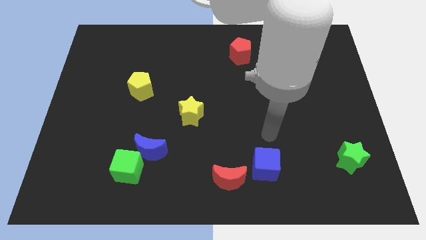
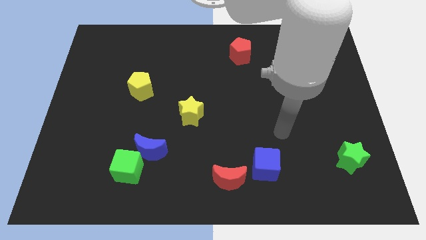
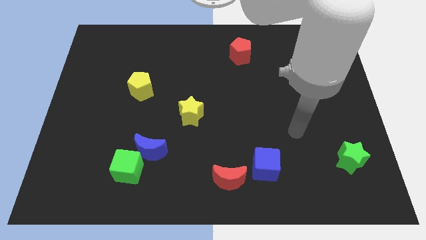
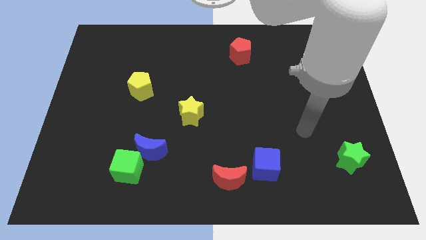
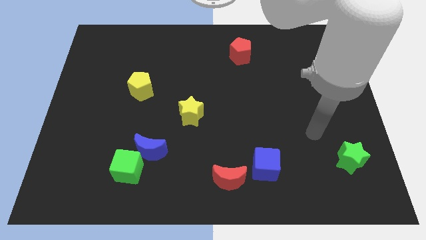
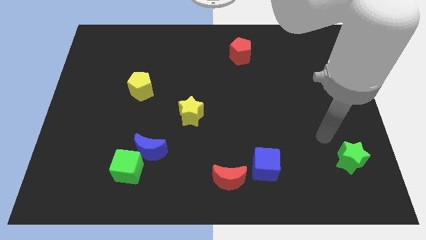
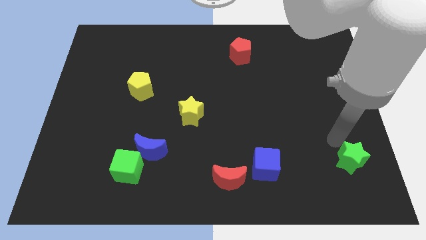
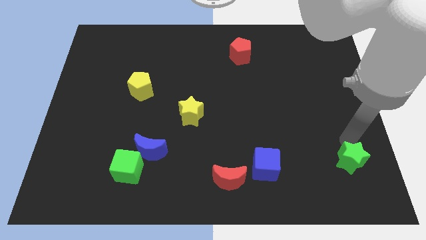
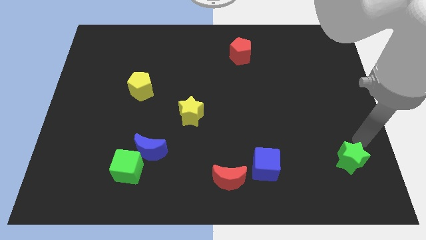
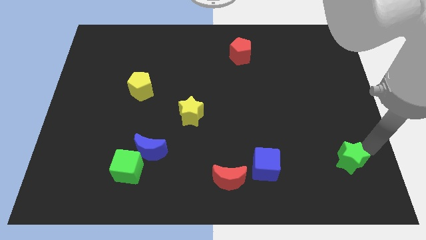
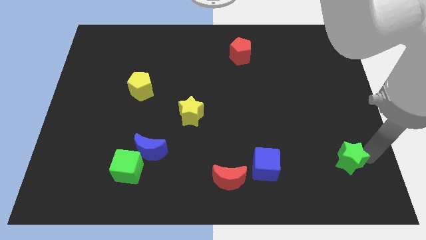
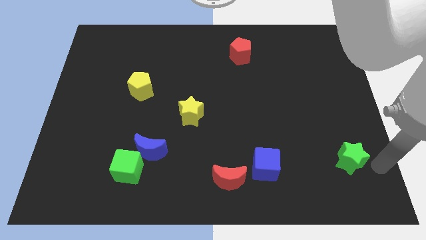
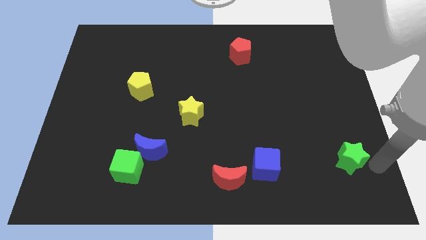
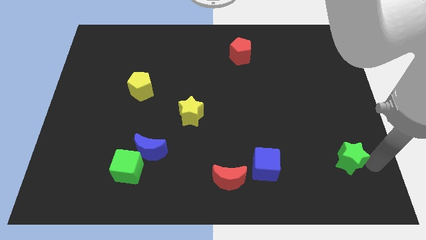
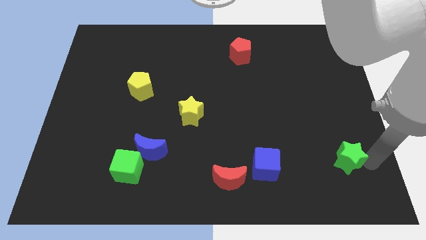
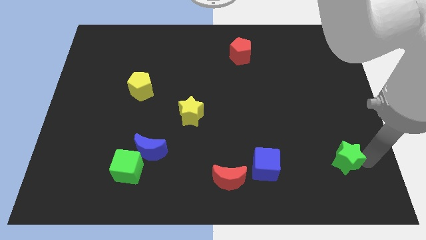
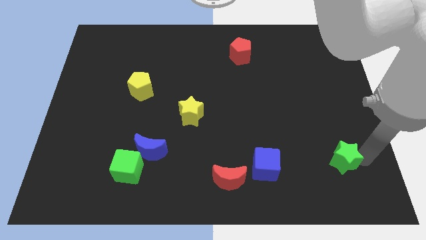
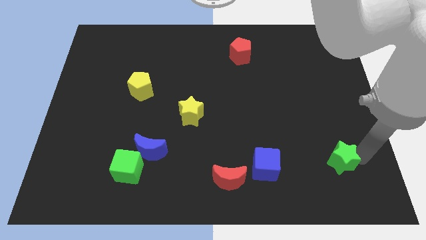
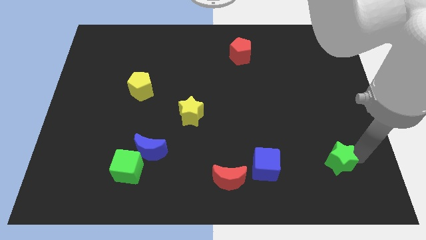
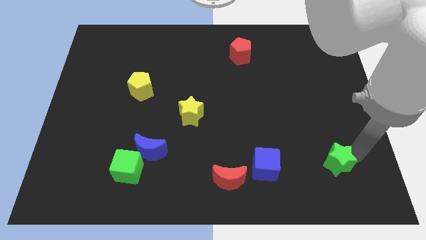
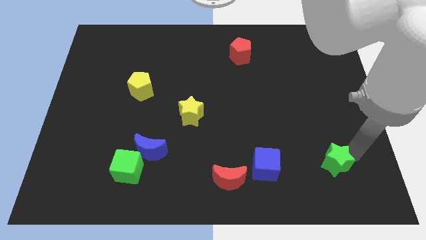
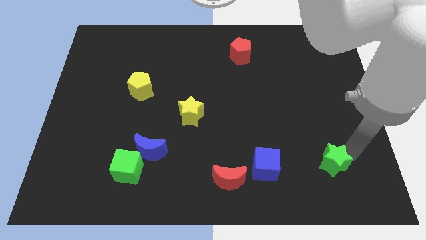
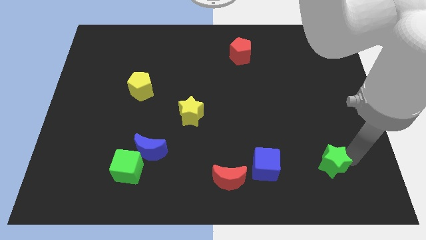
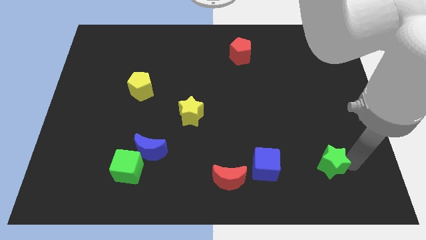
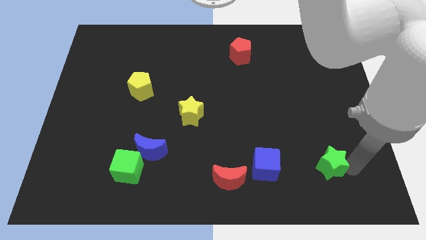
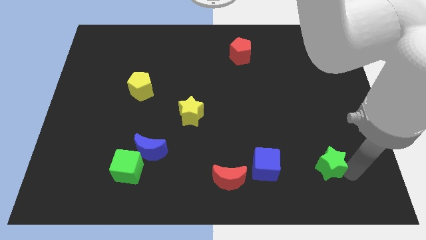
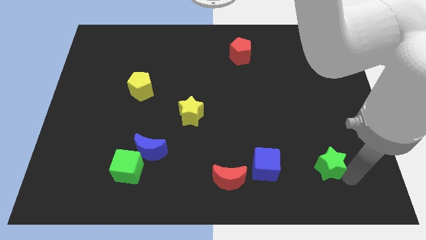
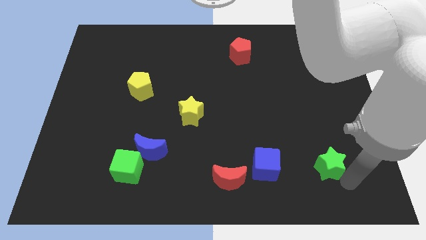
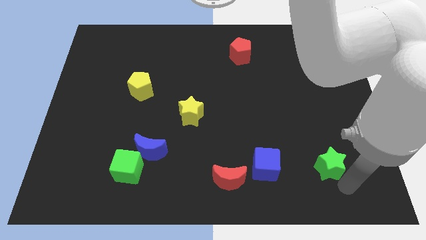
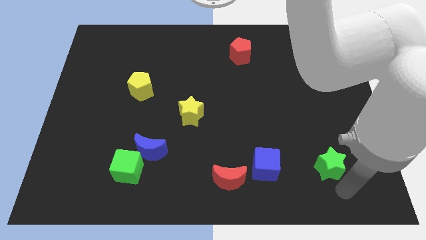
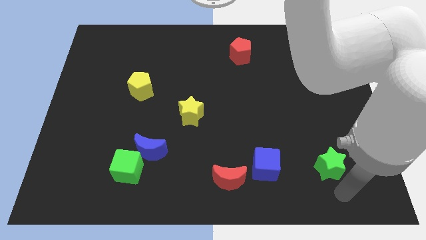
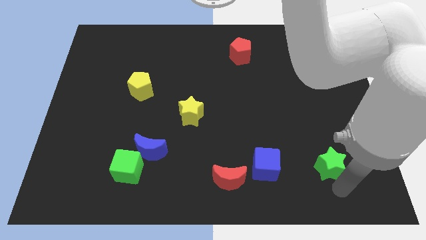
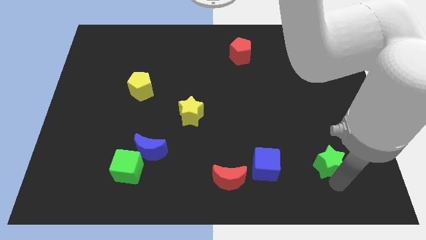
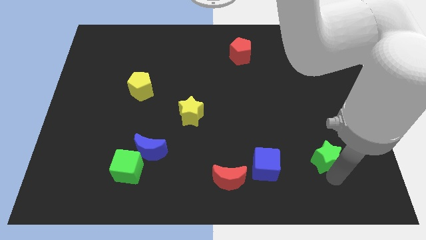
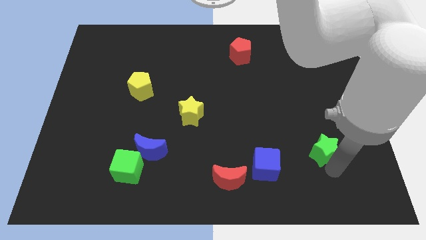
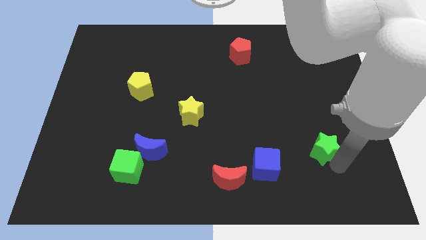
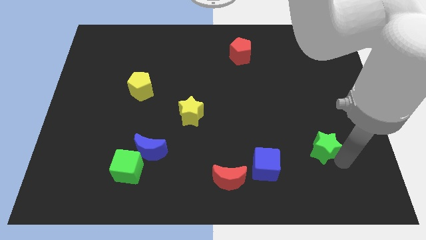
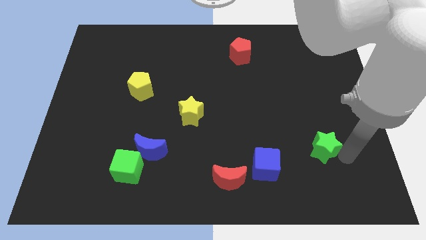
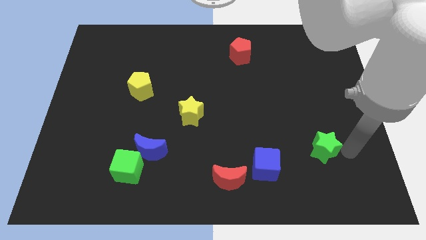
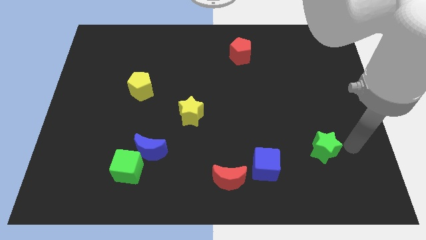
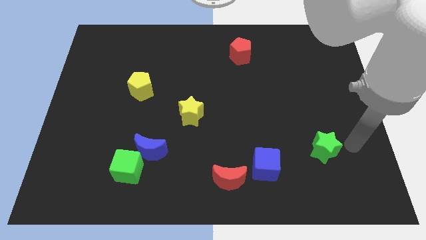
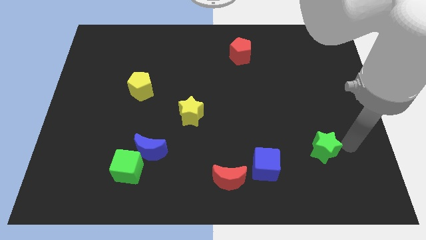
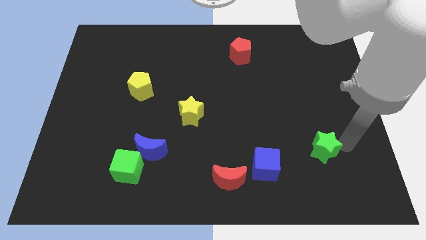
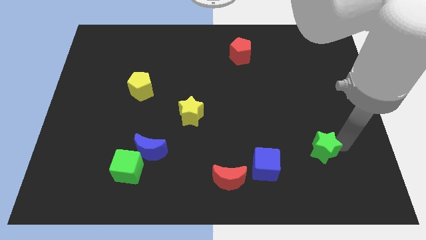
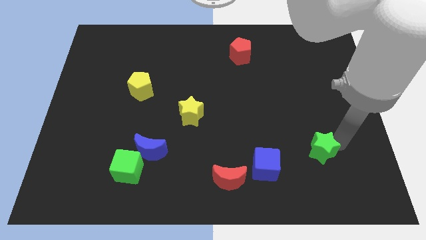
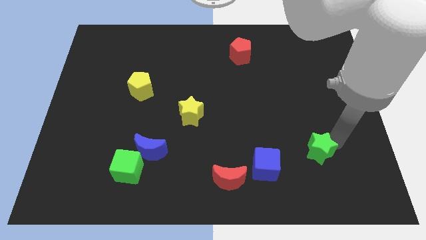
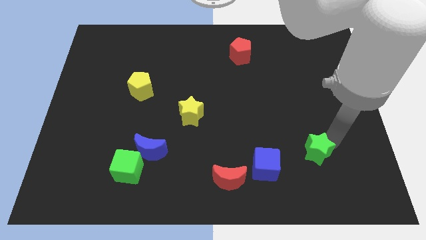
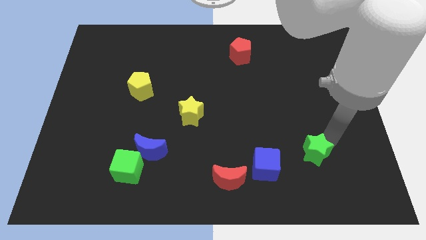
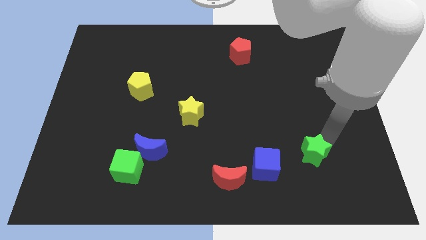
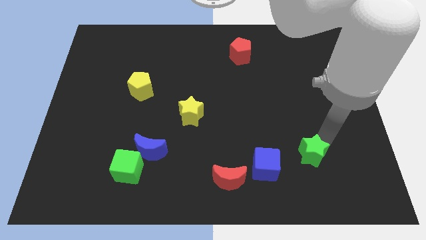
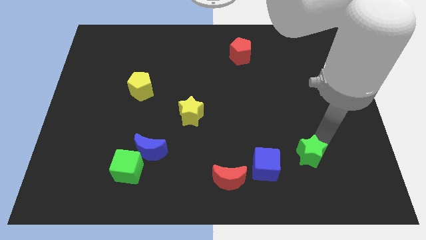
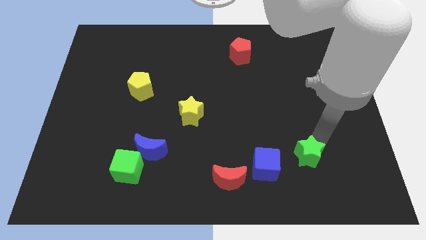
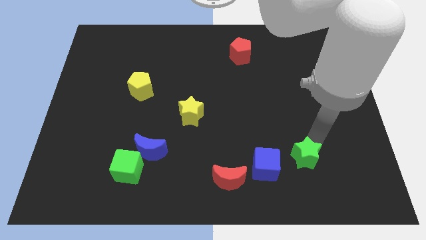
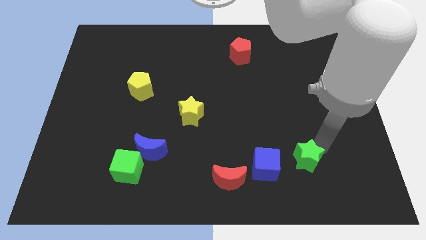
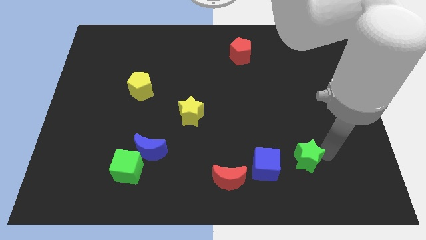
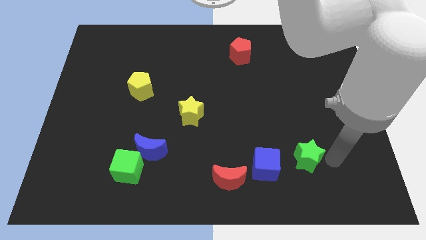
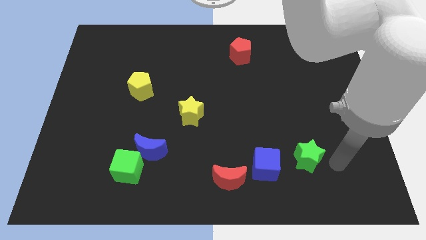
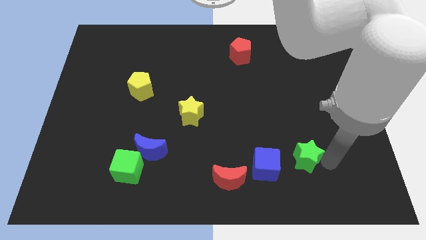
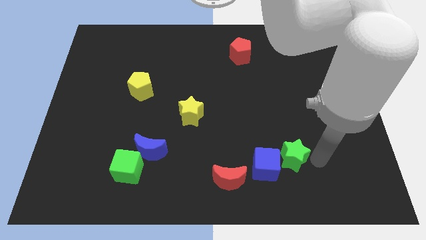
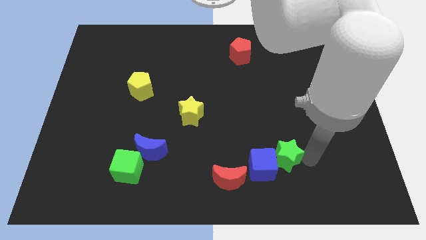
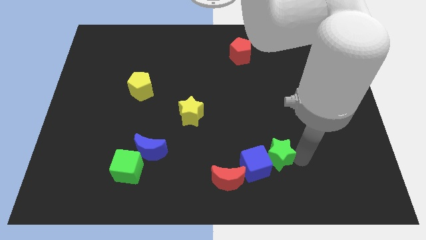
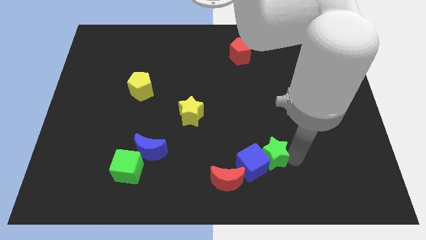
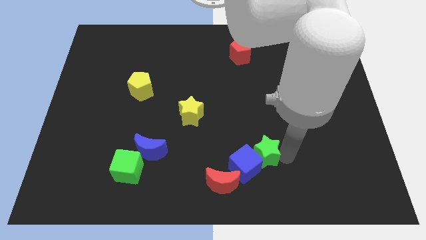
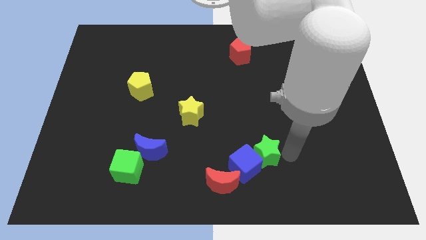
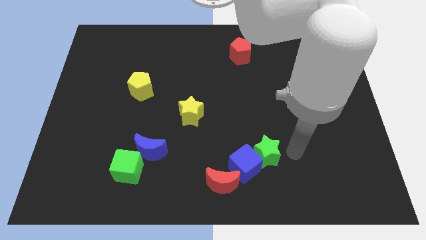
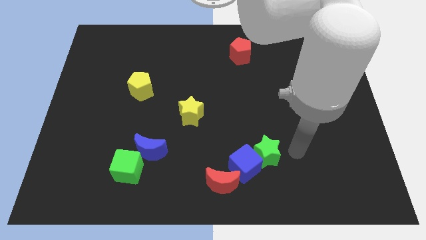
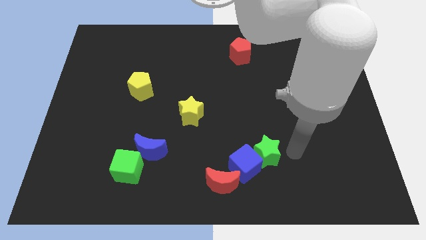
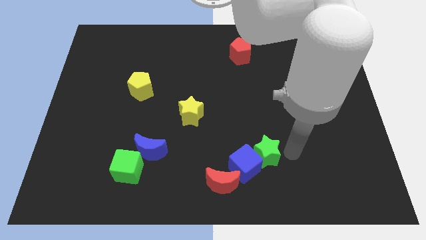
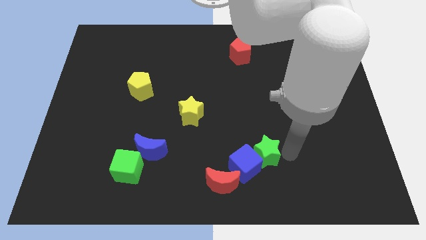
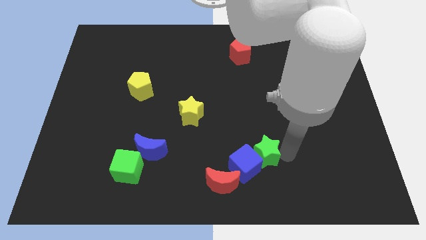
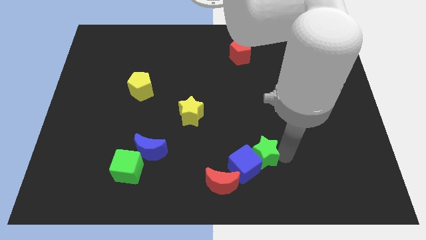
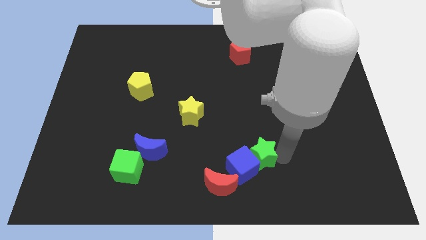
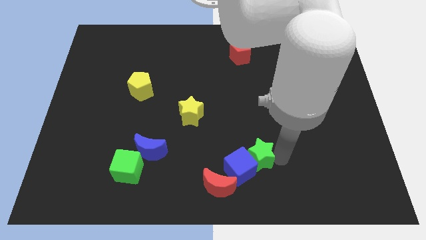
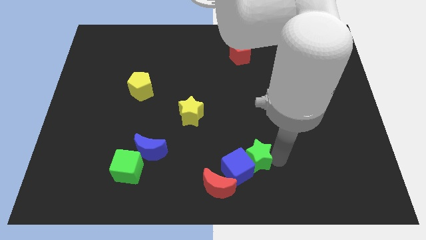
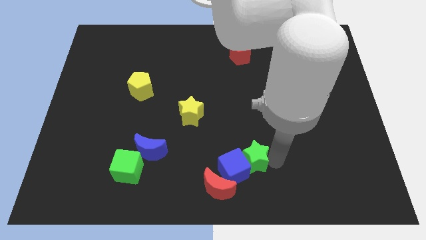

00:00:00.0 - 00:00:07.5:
push the green star left

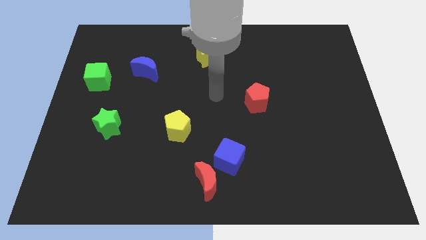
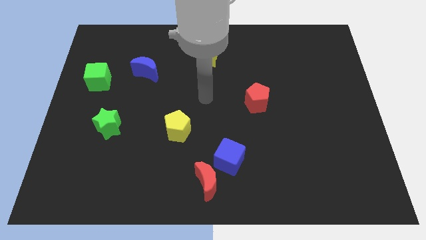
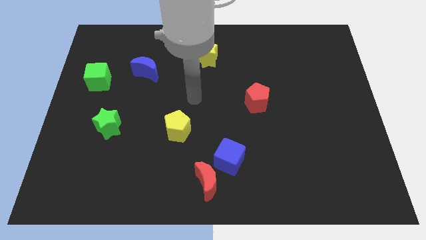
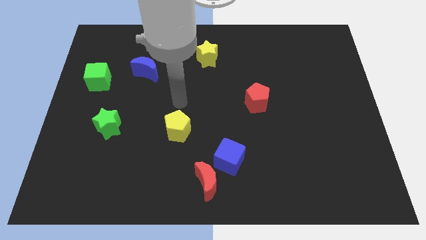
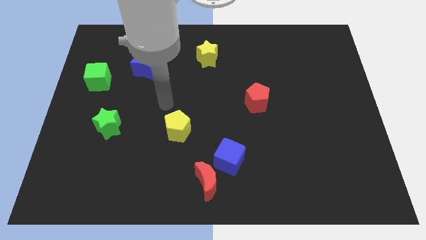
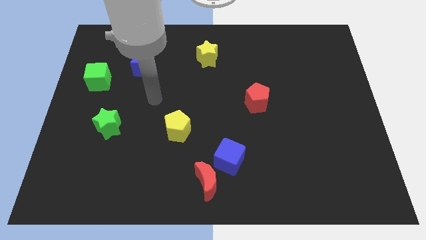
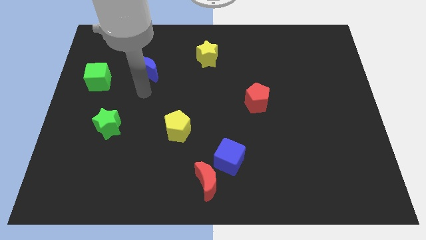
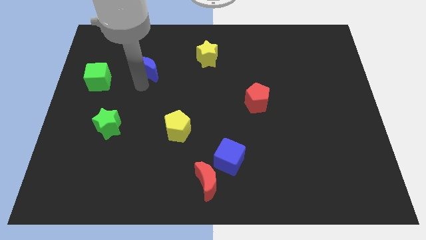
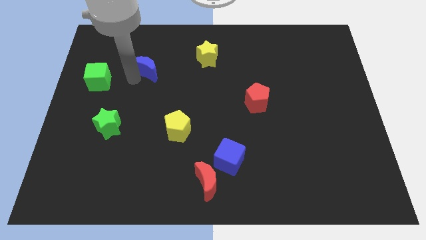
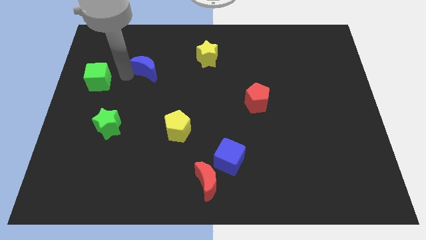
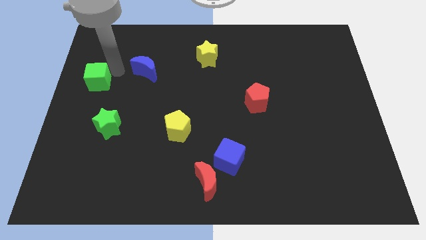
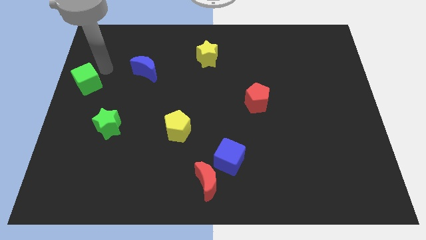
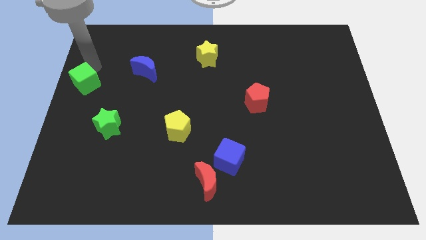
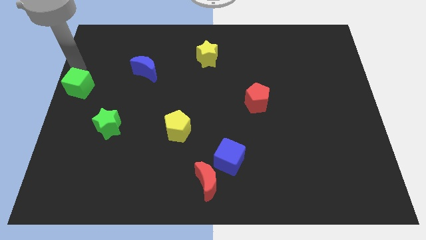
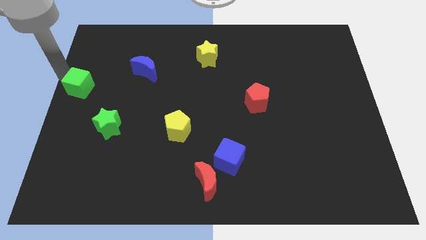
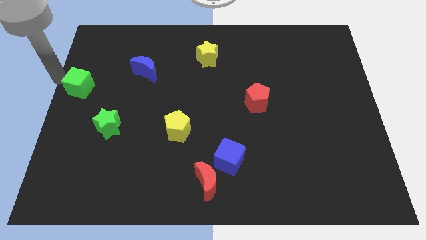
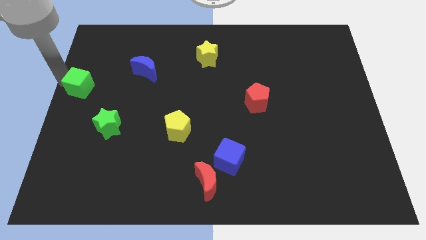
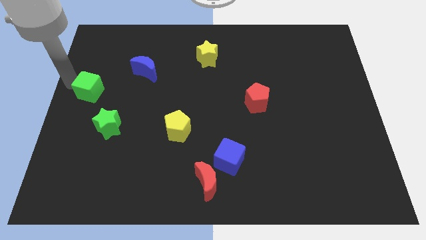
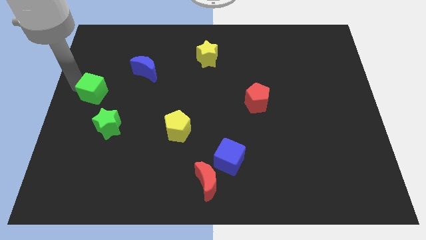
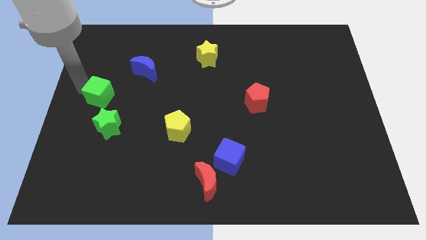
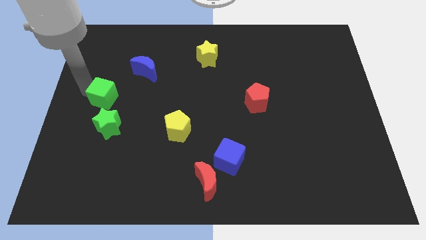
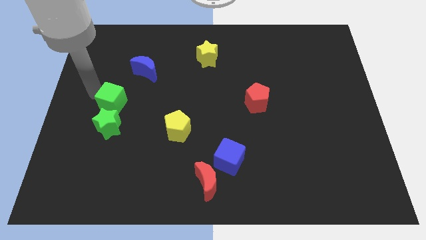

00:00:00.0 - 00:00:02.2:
move the green cube downwards and then right somewhat
